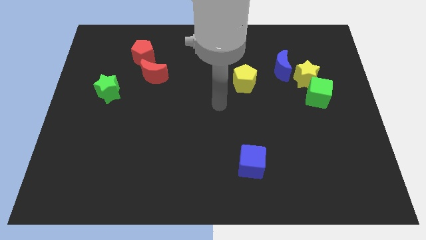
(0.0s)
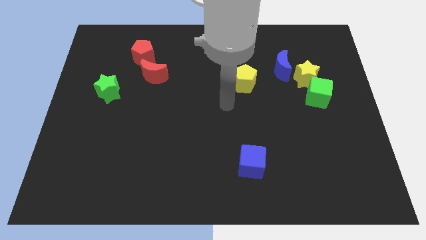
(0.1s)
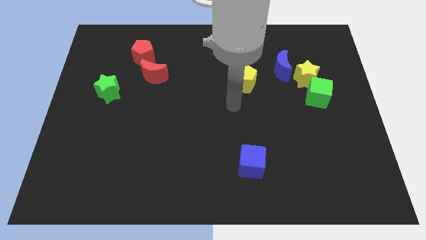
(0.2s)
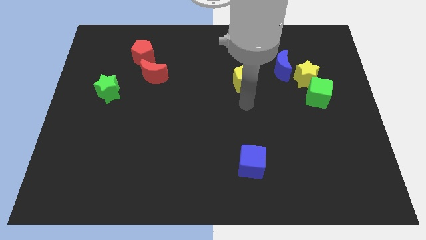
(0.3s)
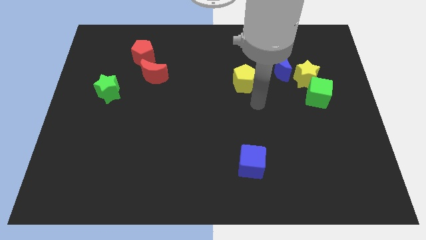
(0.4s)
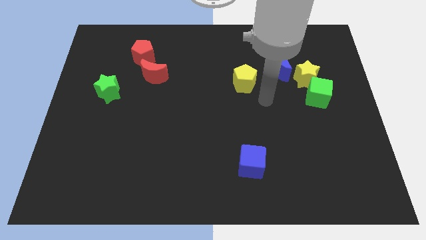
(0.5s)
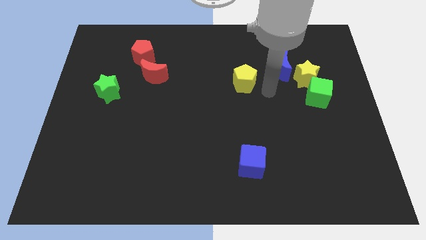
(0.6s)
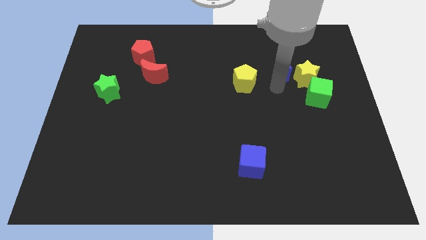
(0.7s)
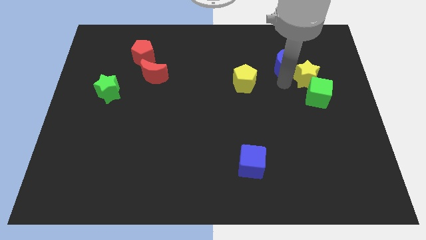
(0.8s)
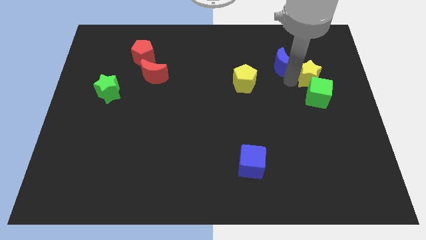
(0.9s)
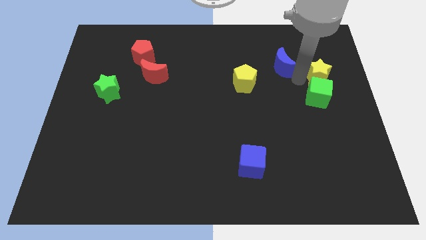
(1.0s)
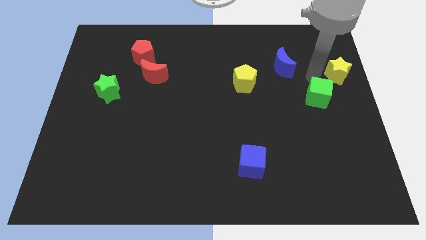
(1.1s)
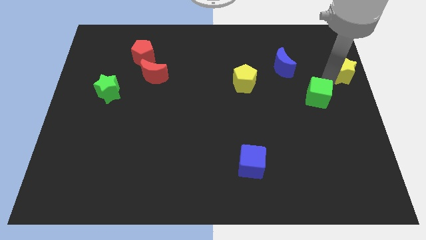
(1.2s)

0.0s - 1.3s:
pull the green cube apart from the yellow star

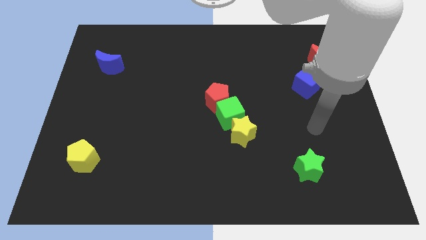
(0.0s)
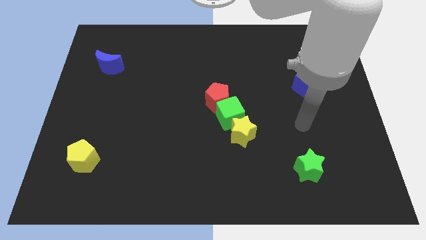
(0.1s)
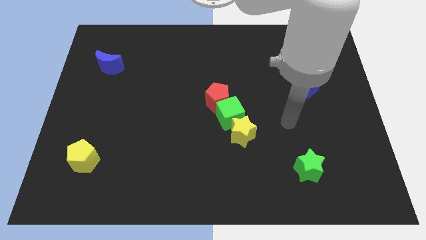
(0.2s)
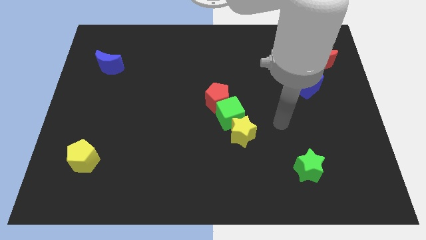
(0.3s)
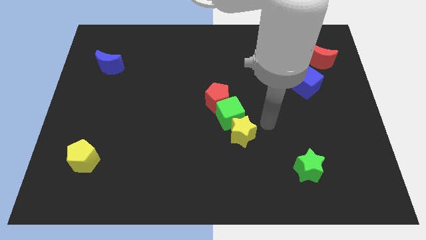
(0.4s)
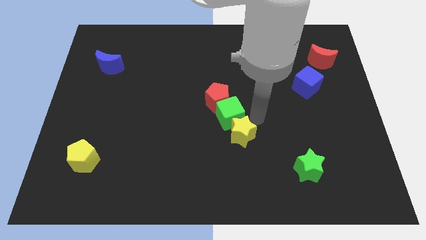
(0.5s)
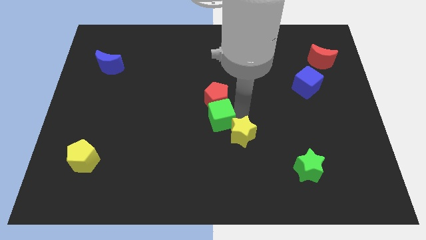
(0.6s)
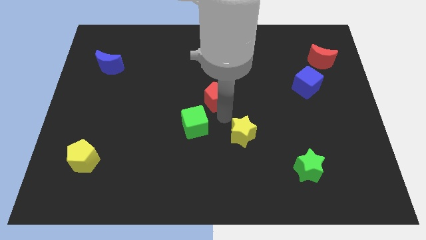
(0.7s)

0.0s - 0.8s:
pull the yellow star apart from the green cube

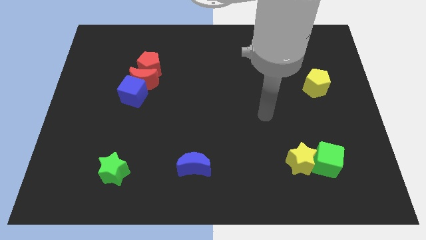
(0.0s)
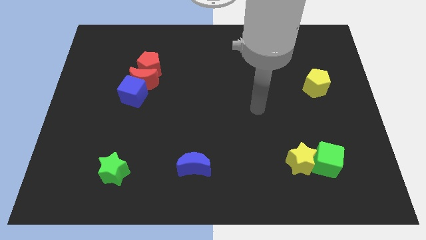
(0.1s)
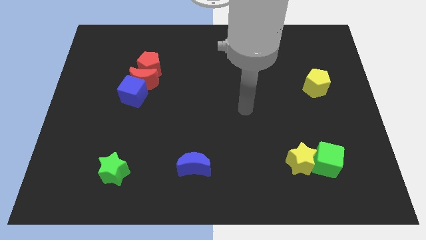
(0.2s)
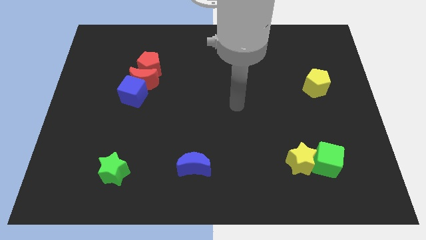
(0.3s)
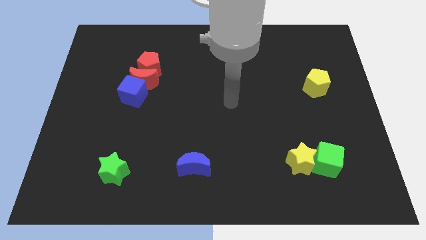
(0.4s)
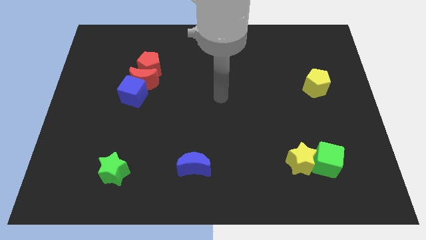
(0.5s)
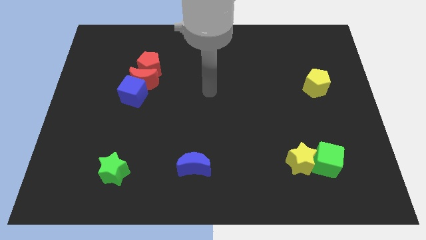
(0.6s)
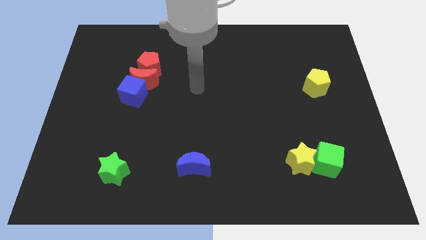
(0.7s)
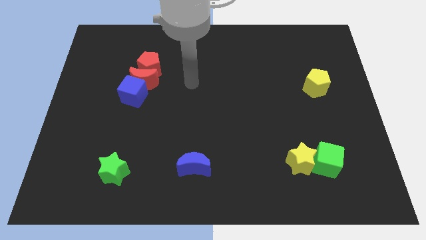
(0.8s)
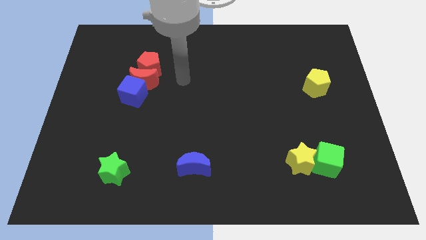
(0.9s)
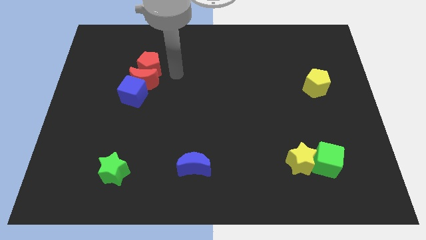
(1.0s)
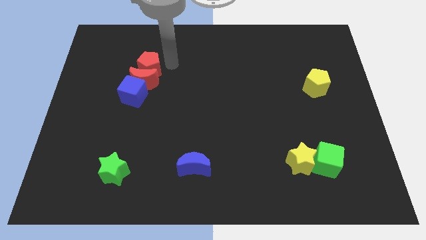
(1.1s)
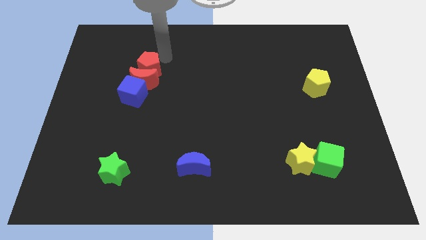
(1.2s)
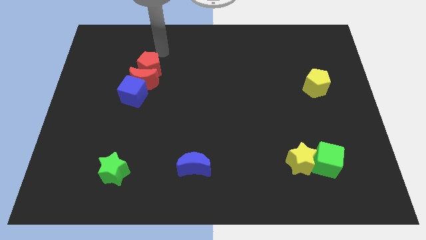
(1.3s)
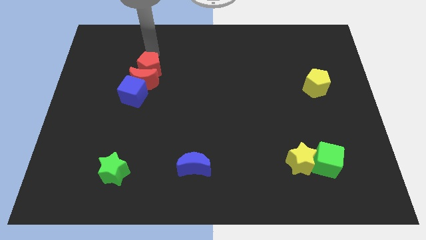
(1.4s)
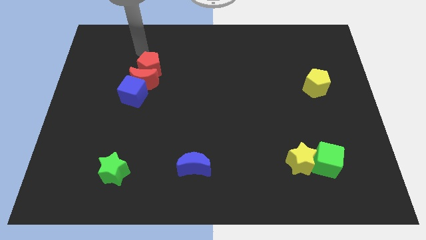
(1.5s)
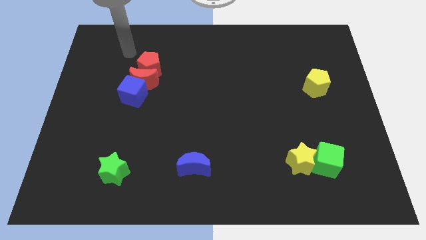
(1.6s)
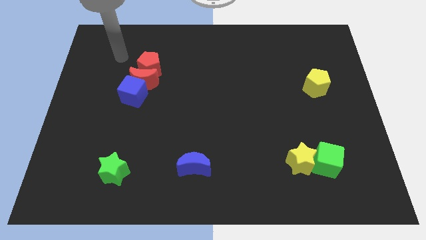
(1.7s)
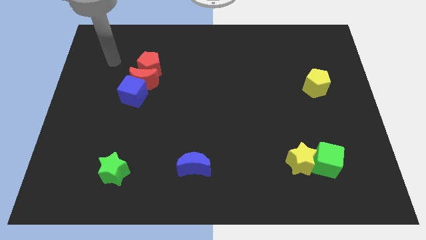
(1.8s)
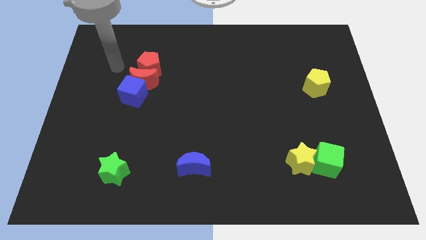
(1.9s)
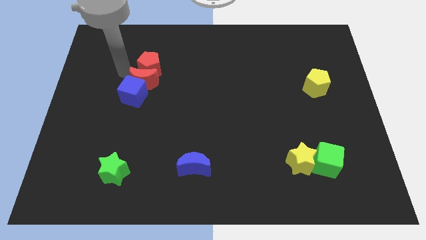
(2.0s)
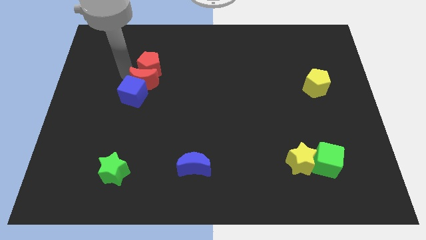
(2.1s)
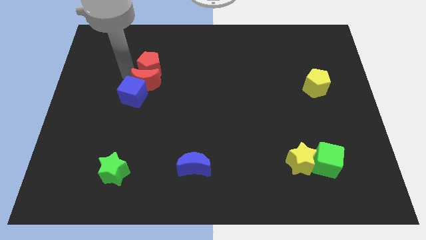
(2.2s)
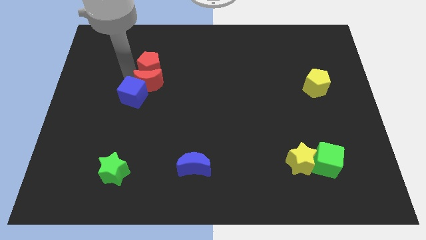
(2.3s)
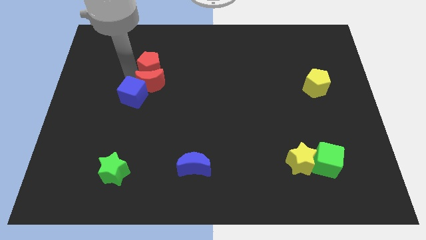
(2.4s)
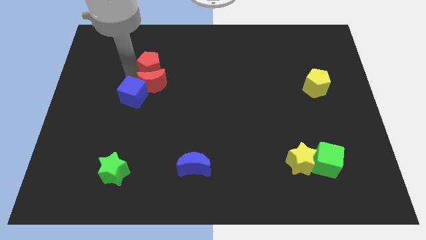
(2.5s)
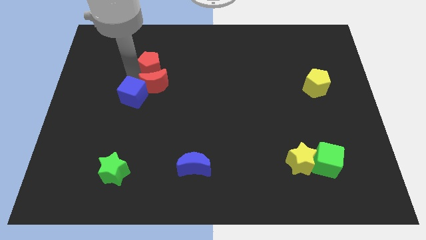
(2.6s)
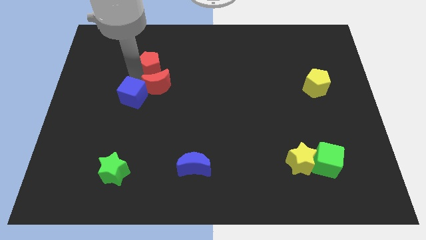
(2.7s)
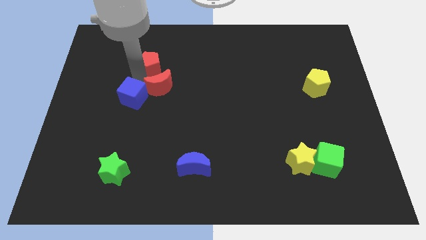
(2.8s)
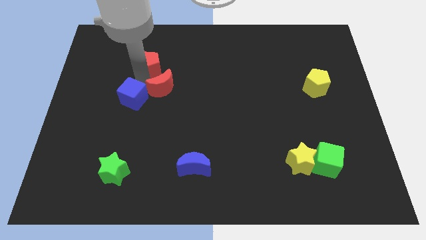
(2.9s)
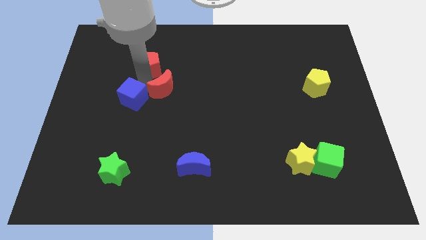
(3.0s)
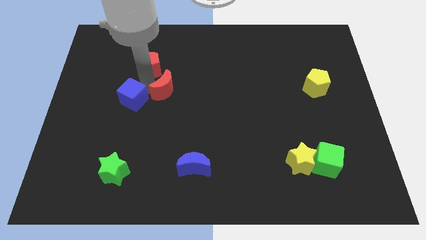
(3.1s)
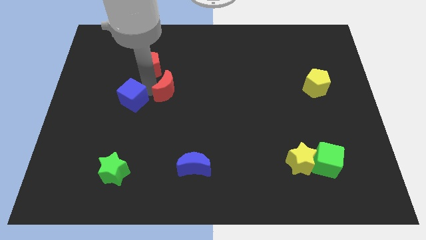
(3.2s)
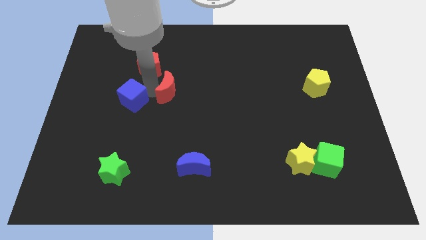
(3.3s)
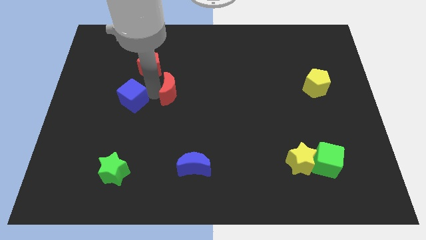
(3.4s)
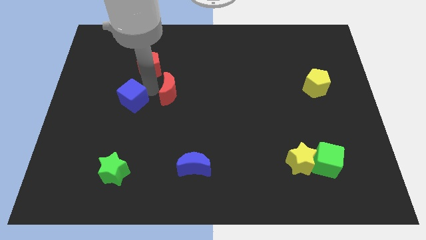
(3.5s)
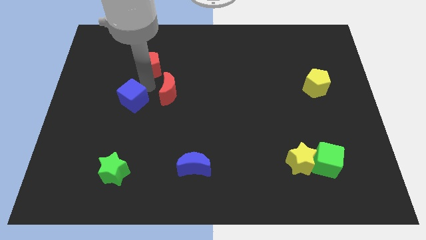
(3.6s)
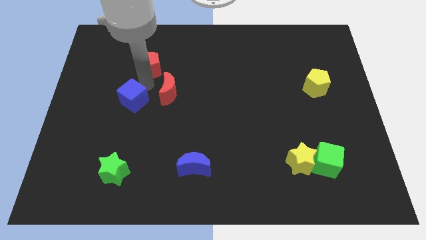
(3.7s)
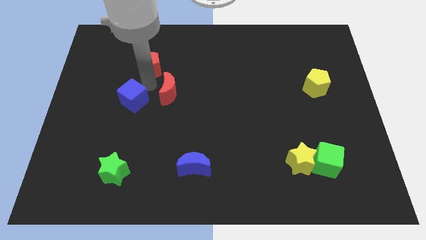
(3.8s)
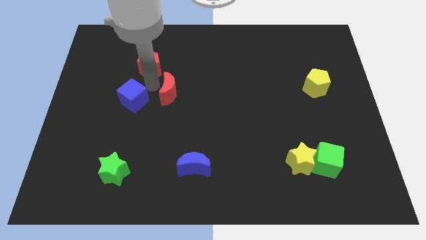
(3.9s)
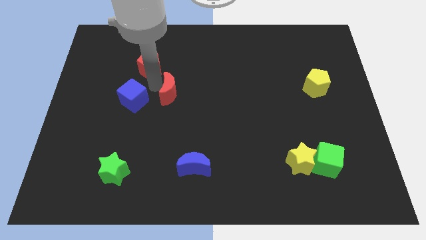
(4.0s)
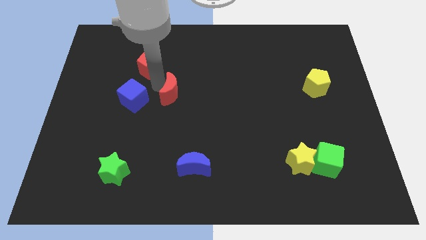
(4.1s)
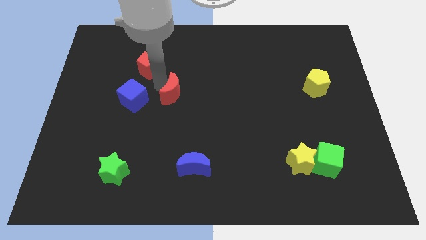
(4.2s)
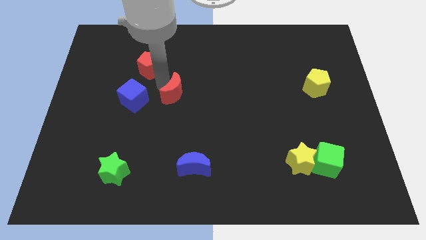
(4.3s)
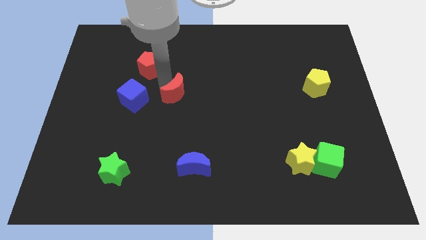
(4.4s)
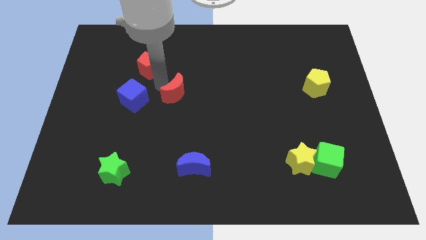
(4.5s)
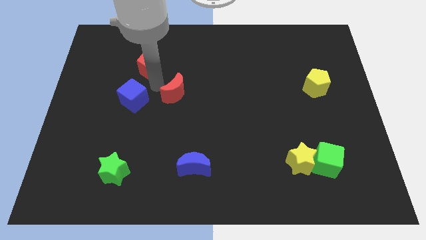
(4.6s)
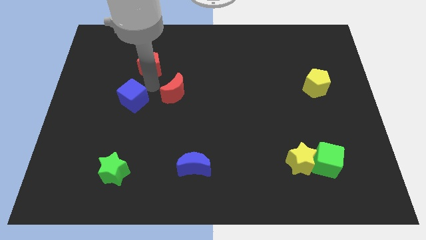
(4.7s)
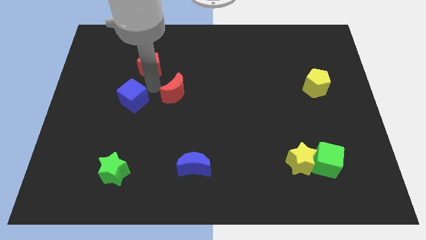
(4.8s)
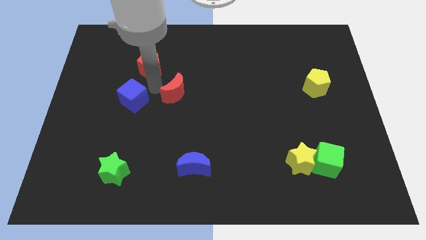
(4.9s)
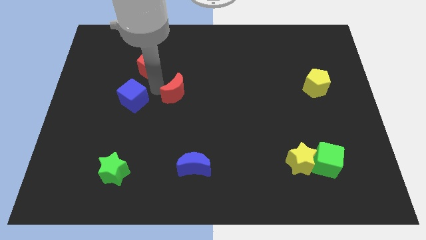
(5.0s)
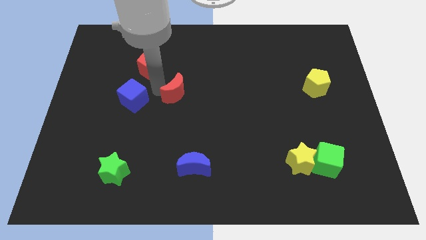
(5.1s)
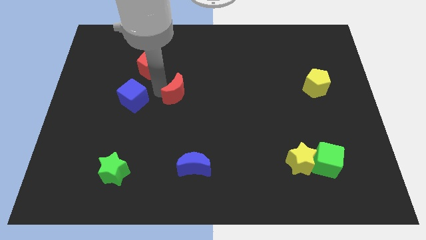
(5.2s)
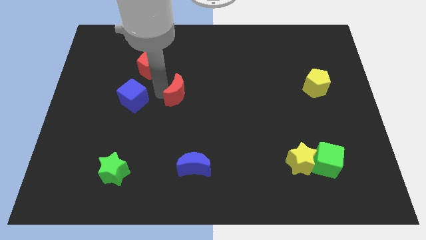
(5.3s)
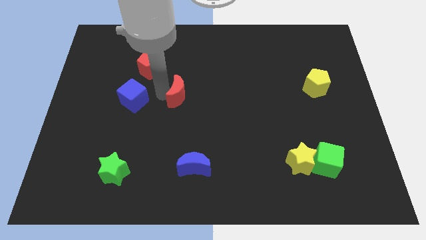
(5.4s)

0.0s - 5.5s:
pull the red moon apart from the blue cube and red pentagon

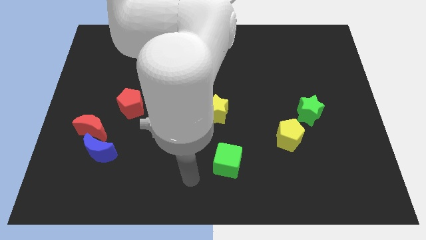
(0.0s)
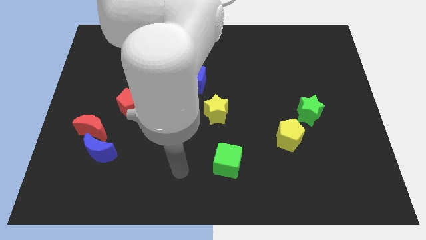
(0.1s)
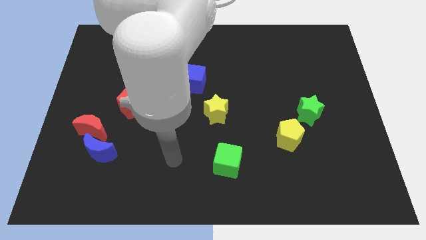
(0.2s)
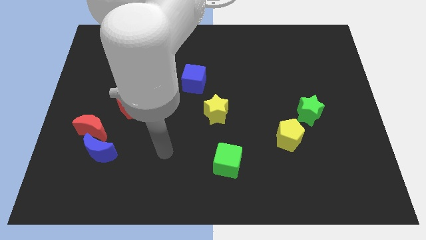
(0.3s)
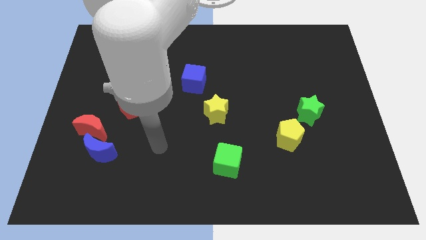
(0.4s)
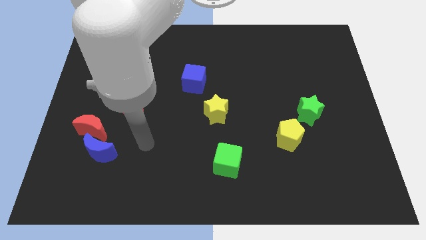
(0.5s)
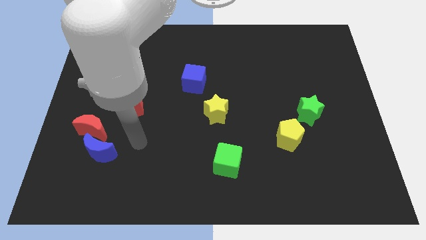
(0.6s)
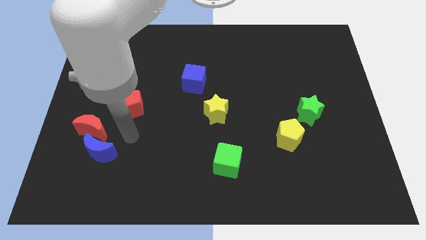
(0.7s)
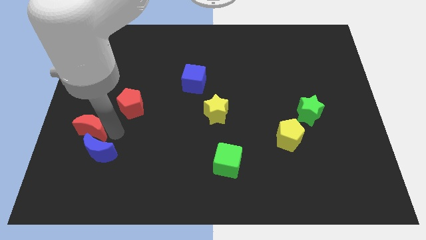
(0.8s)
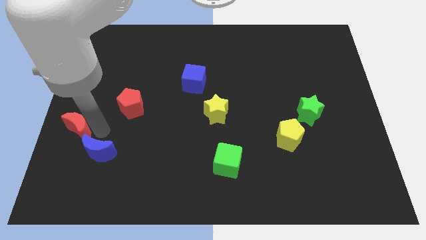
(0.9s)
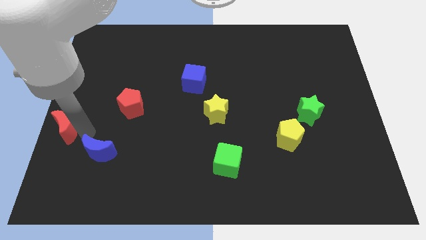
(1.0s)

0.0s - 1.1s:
move the blue moon away from the red moon

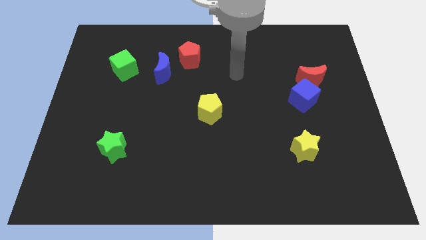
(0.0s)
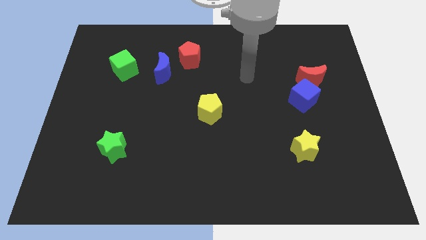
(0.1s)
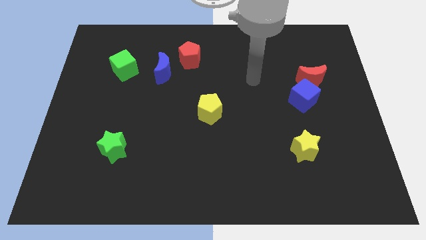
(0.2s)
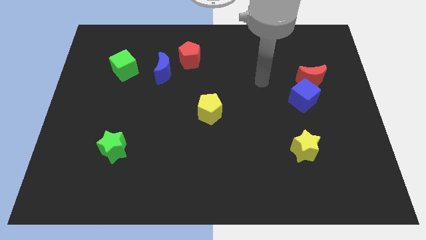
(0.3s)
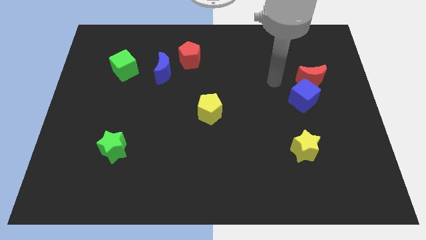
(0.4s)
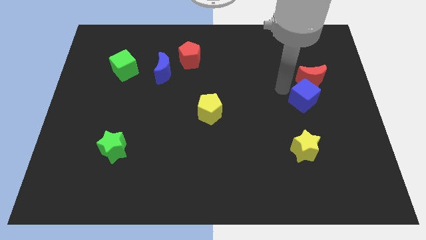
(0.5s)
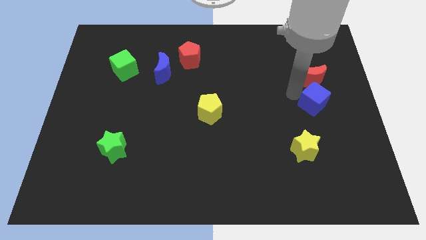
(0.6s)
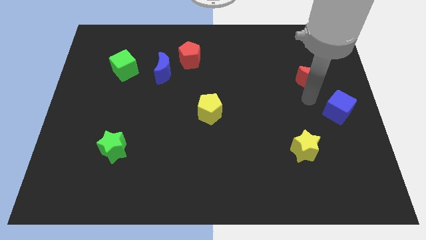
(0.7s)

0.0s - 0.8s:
move the red moon away from the blue cube
